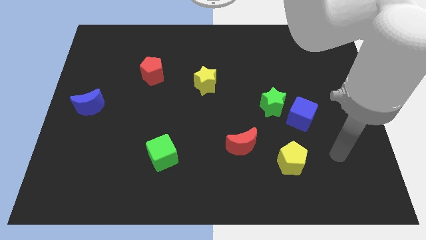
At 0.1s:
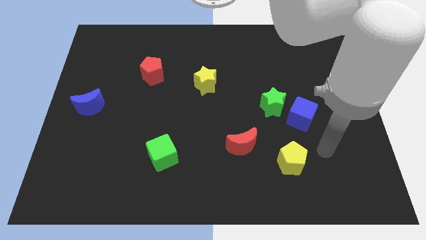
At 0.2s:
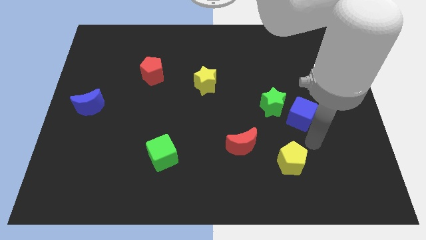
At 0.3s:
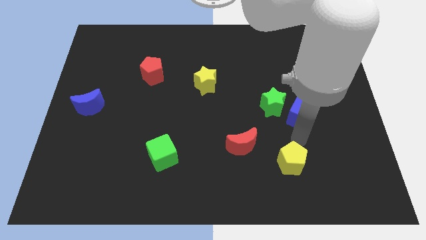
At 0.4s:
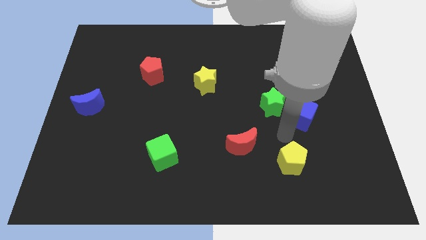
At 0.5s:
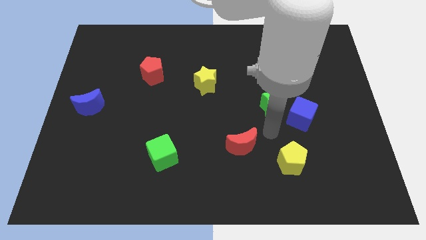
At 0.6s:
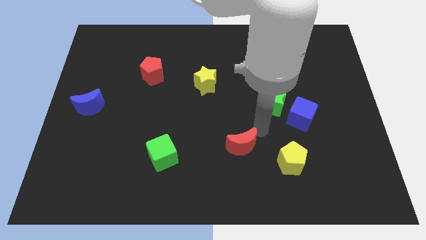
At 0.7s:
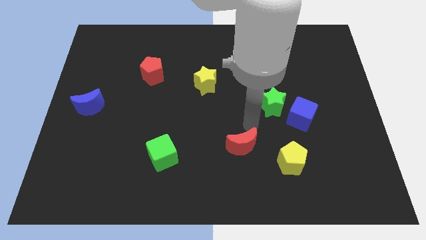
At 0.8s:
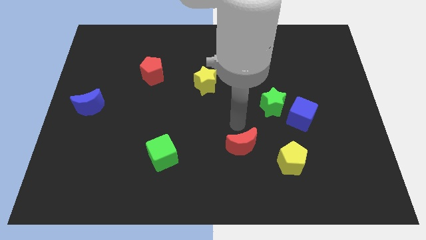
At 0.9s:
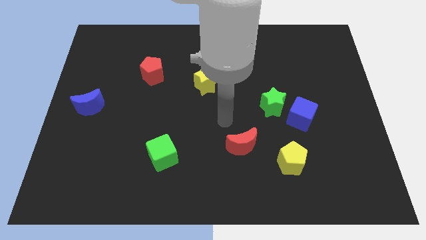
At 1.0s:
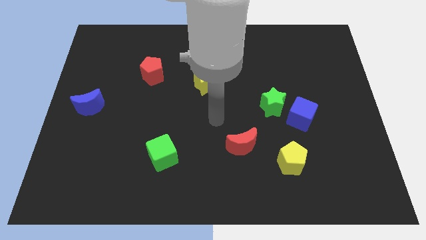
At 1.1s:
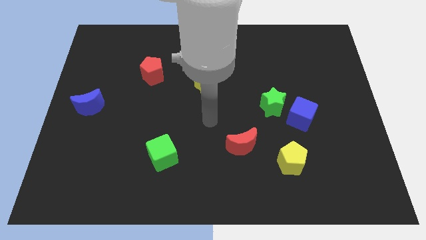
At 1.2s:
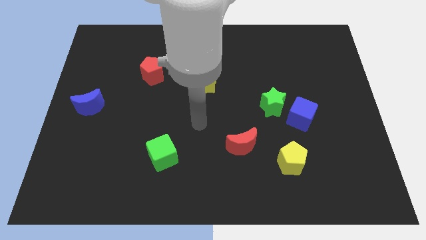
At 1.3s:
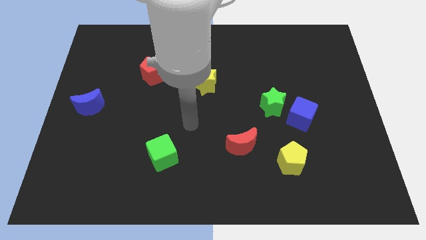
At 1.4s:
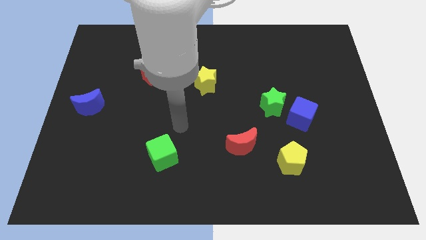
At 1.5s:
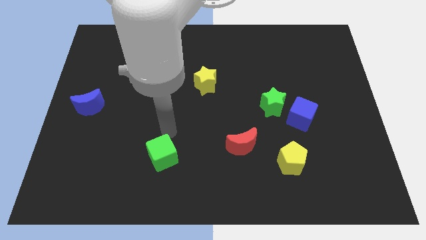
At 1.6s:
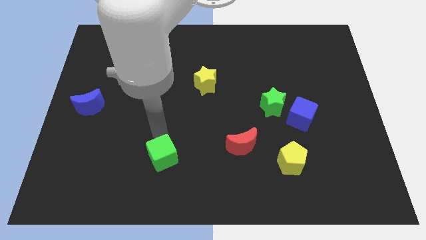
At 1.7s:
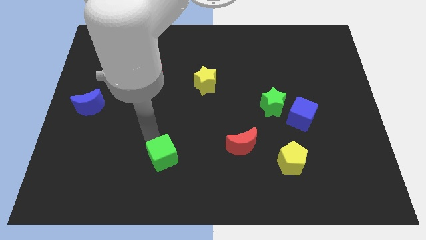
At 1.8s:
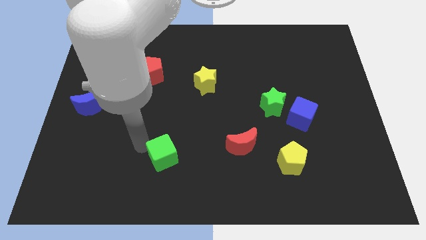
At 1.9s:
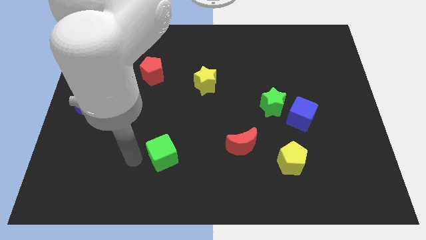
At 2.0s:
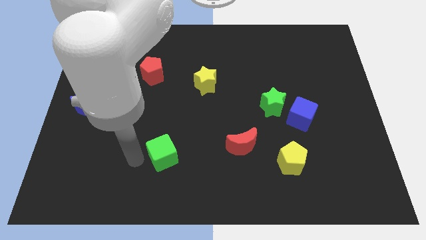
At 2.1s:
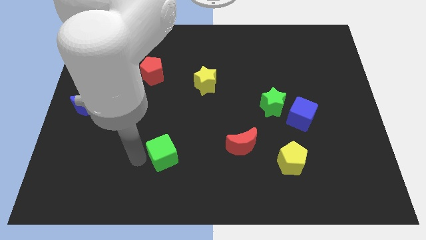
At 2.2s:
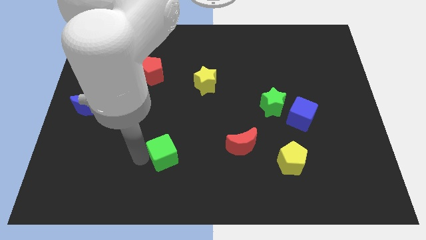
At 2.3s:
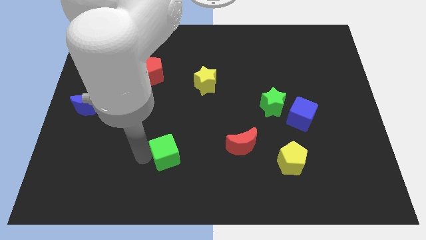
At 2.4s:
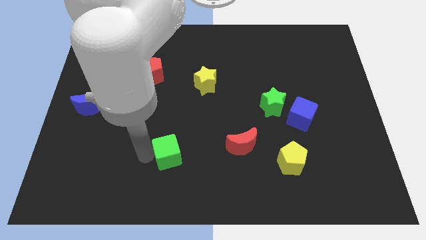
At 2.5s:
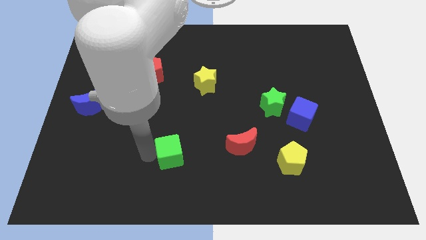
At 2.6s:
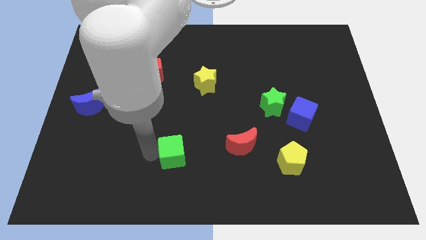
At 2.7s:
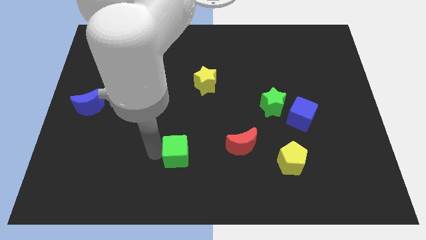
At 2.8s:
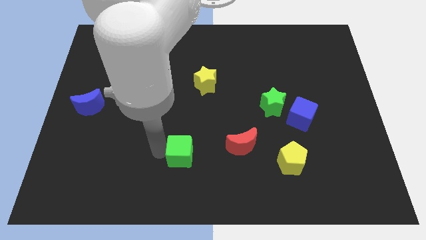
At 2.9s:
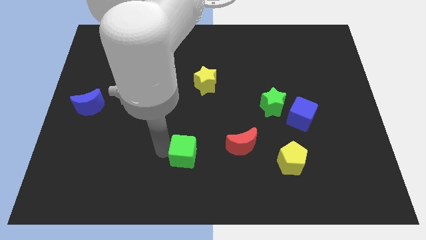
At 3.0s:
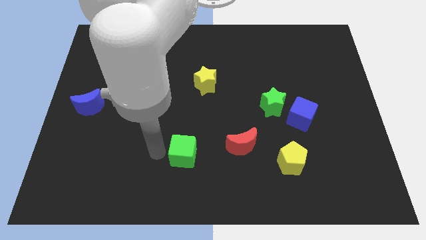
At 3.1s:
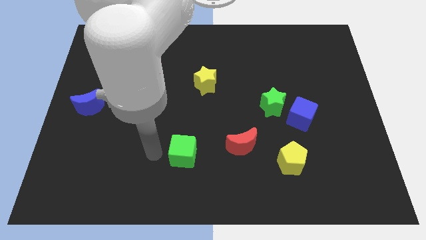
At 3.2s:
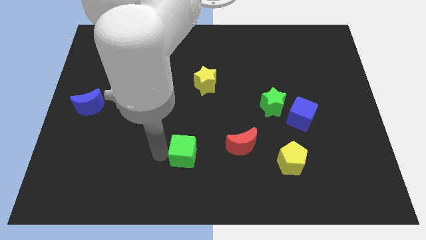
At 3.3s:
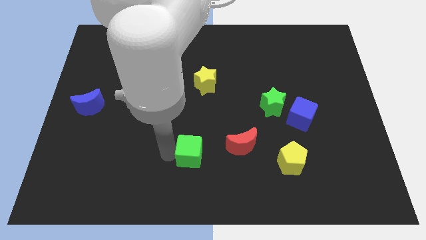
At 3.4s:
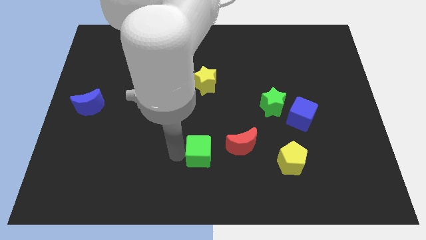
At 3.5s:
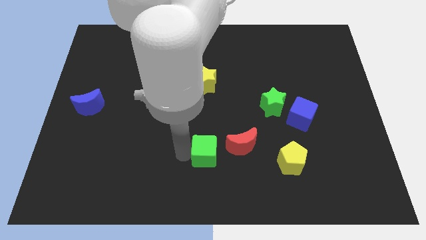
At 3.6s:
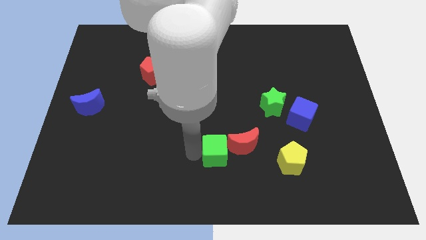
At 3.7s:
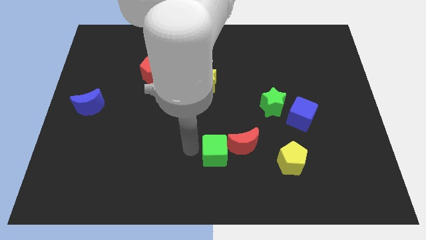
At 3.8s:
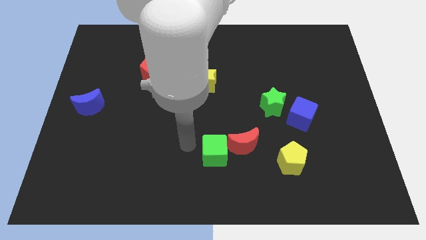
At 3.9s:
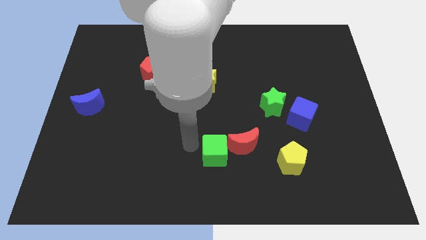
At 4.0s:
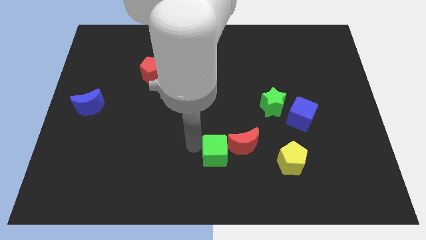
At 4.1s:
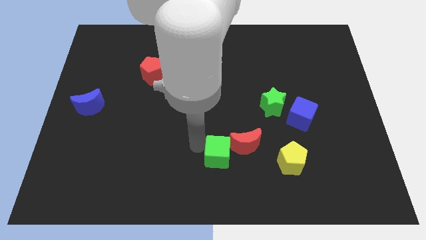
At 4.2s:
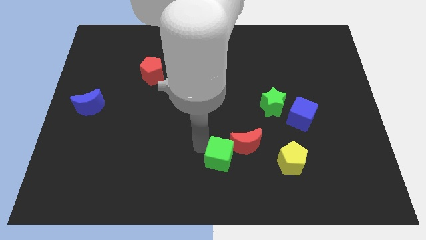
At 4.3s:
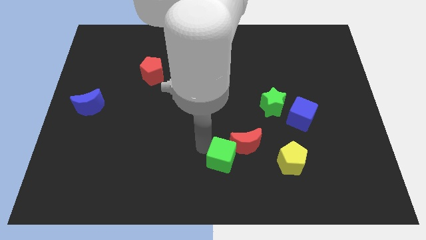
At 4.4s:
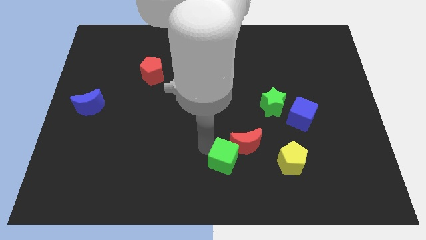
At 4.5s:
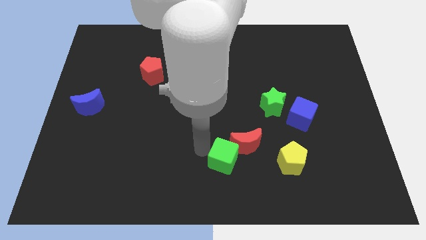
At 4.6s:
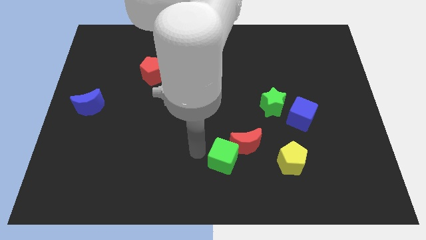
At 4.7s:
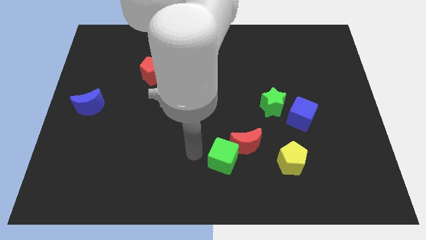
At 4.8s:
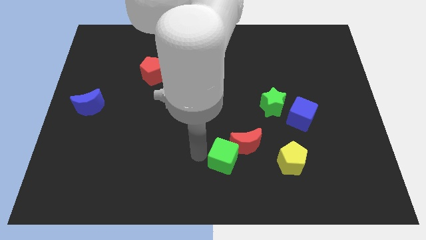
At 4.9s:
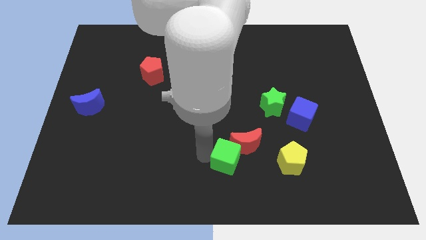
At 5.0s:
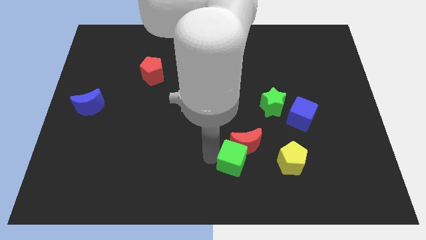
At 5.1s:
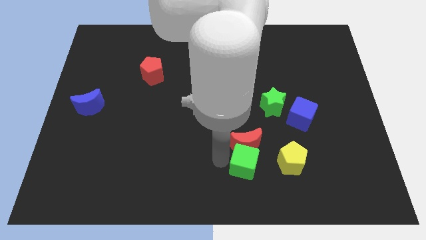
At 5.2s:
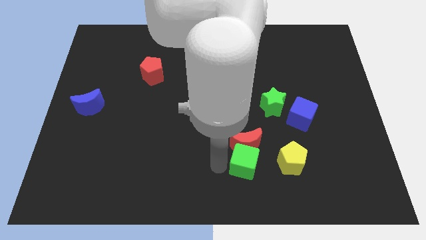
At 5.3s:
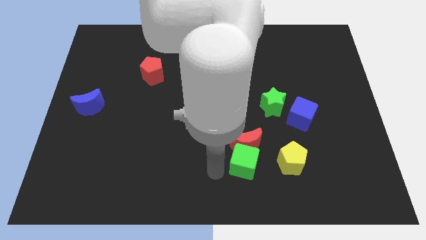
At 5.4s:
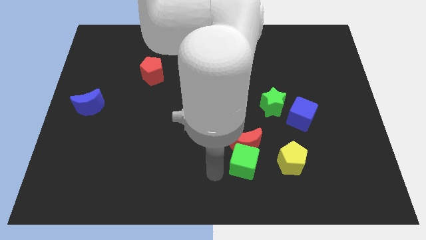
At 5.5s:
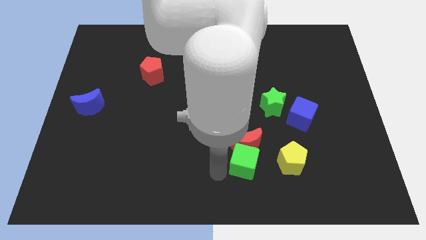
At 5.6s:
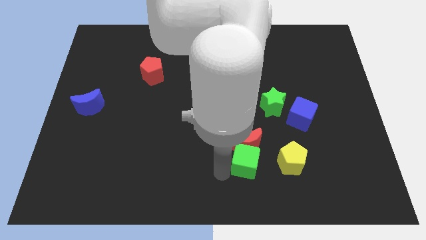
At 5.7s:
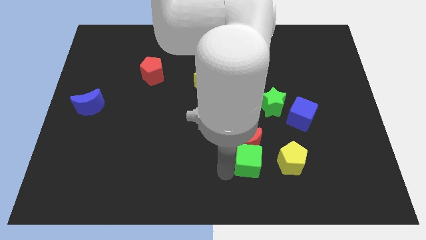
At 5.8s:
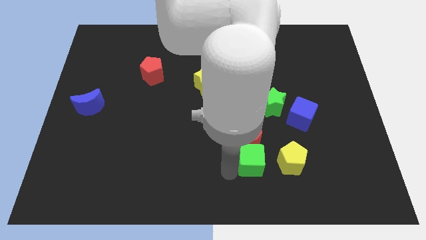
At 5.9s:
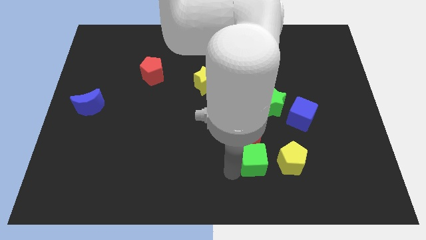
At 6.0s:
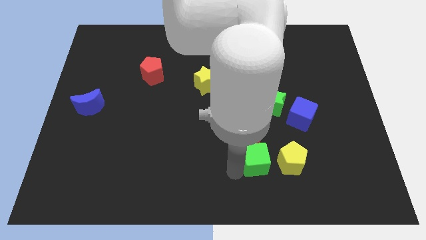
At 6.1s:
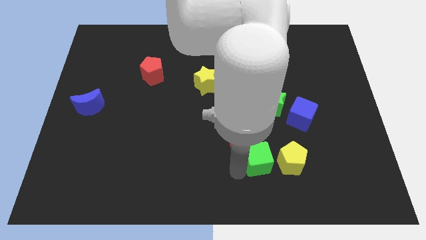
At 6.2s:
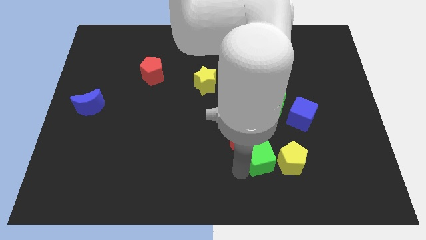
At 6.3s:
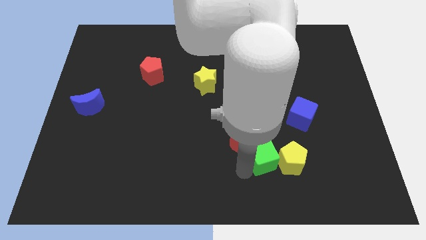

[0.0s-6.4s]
push the green cube to the bottom of the green star

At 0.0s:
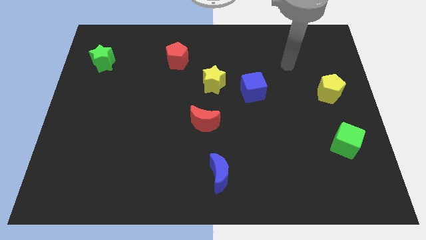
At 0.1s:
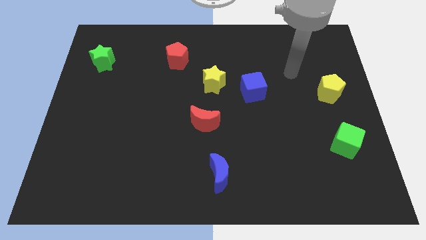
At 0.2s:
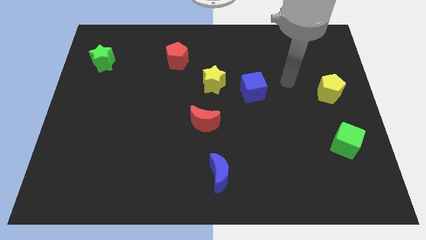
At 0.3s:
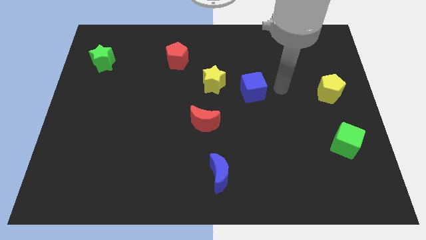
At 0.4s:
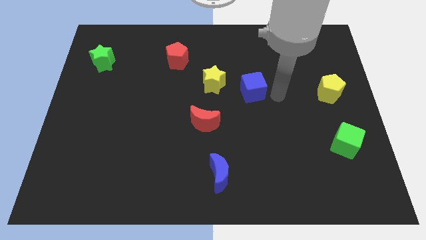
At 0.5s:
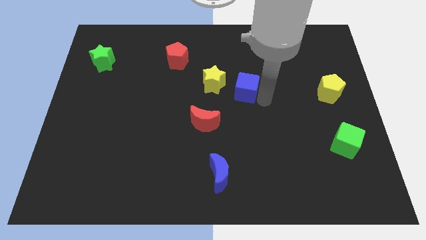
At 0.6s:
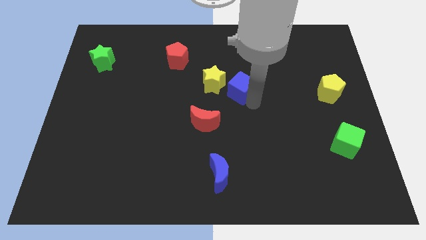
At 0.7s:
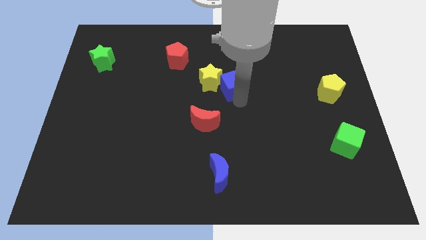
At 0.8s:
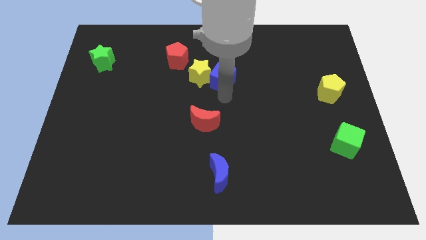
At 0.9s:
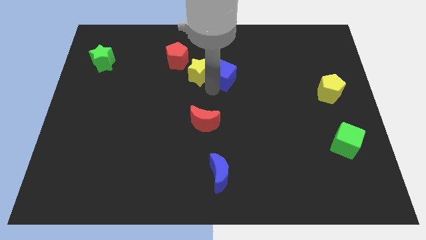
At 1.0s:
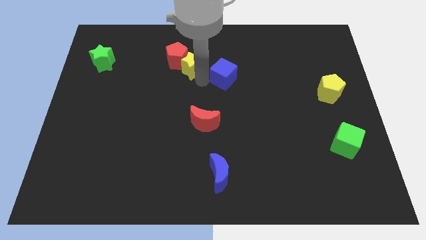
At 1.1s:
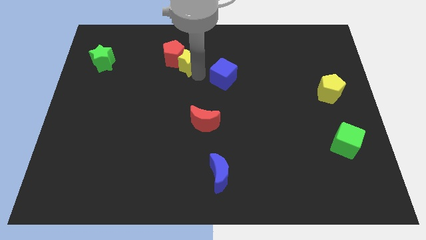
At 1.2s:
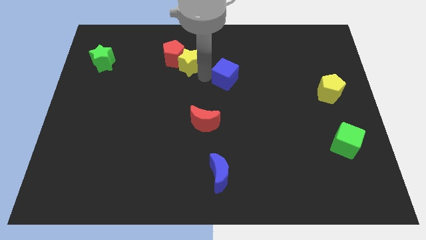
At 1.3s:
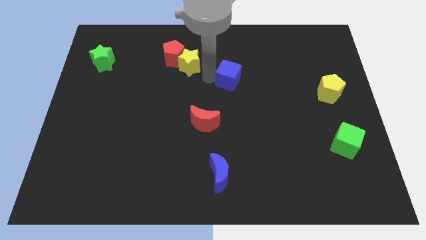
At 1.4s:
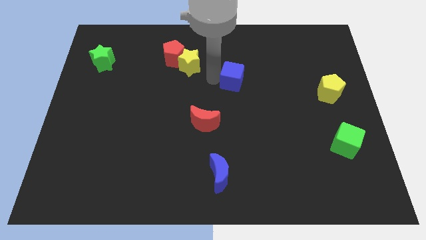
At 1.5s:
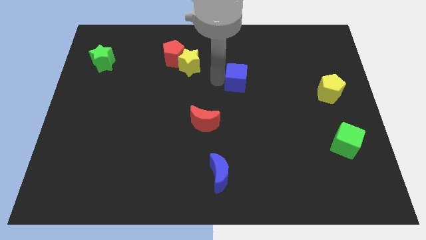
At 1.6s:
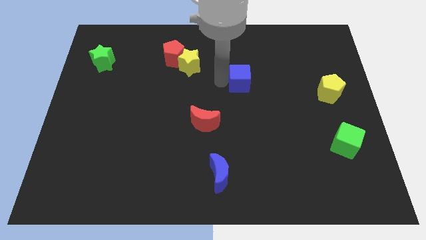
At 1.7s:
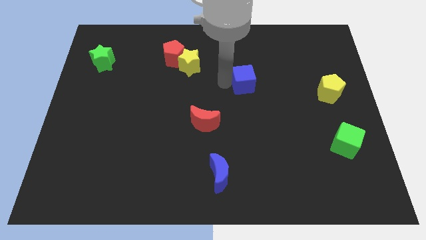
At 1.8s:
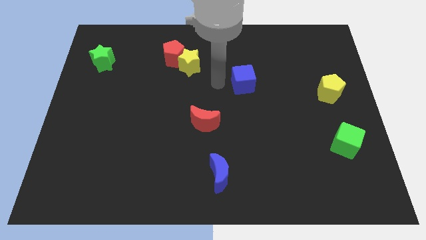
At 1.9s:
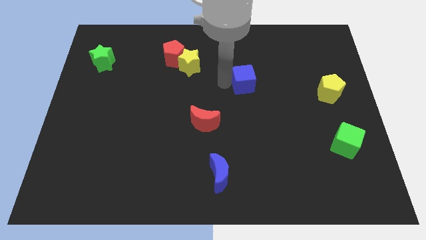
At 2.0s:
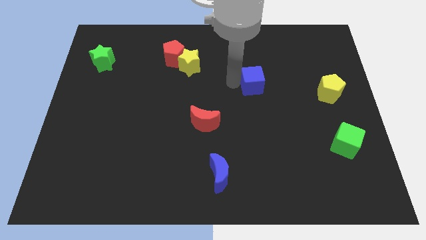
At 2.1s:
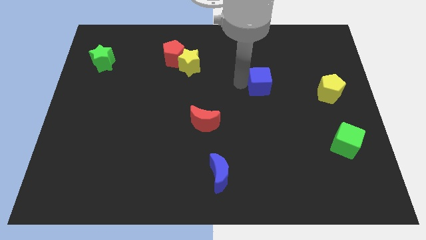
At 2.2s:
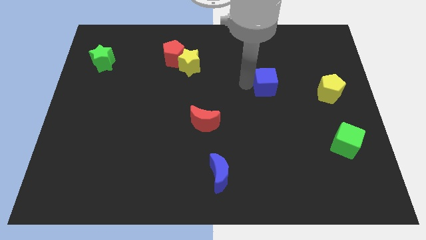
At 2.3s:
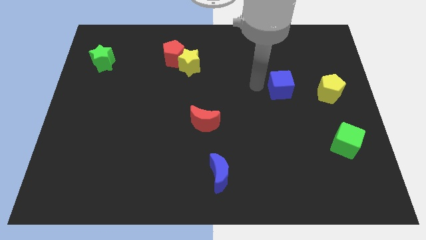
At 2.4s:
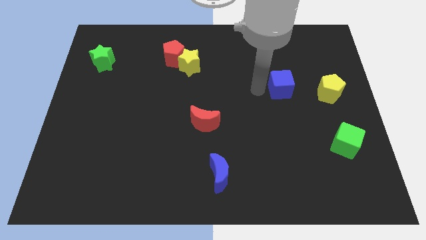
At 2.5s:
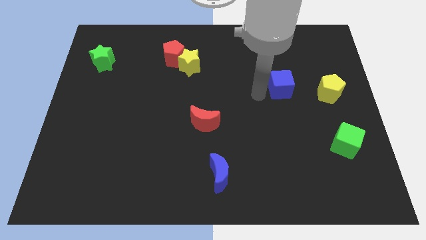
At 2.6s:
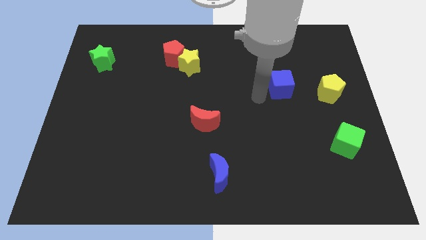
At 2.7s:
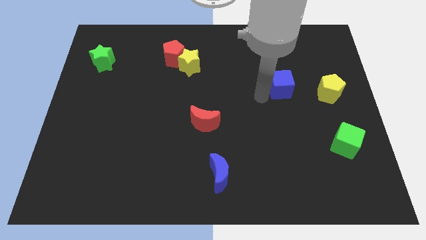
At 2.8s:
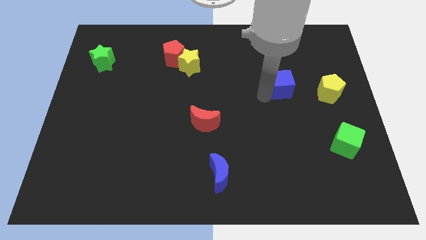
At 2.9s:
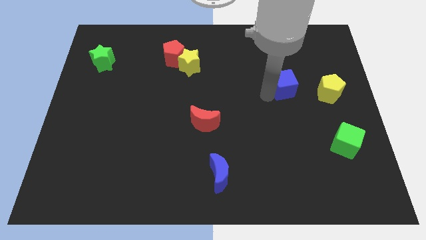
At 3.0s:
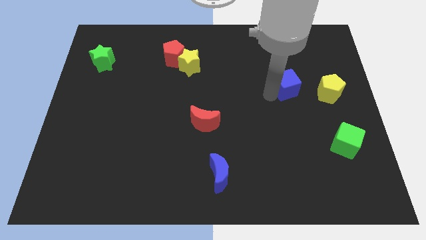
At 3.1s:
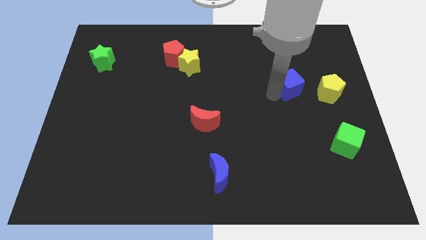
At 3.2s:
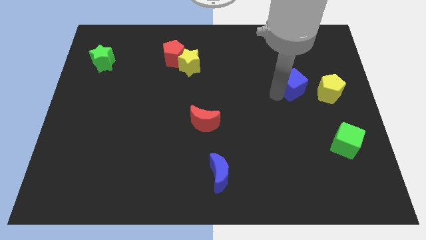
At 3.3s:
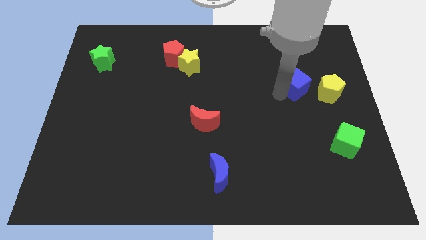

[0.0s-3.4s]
move the blue cube to the top left of the yellow pentagon
